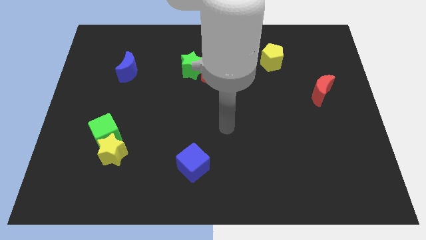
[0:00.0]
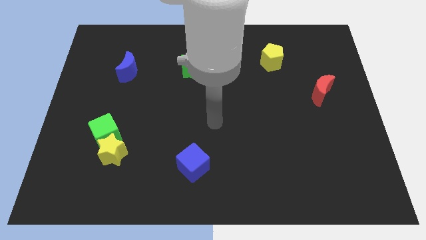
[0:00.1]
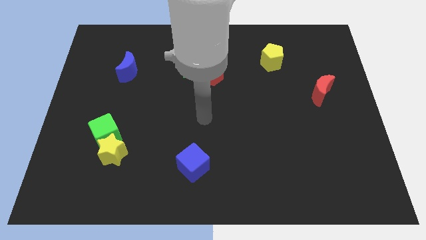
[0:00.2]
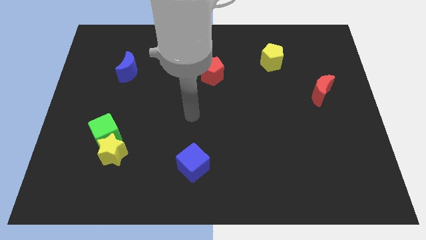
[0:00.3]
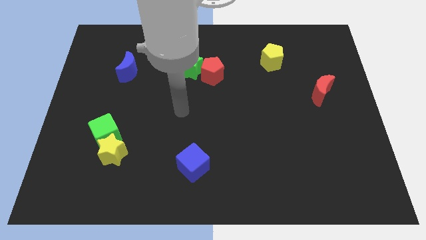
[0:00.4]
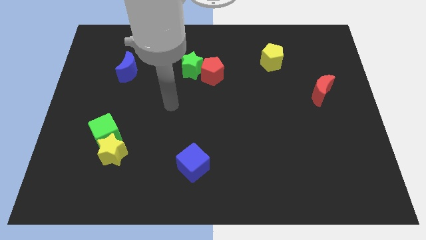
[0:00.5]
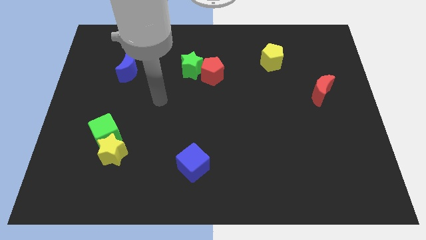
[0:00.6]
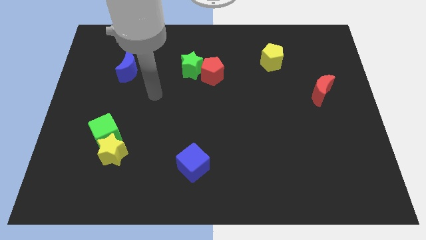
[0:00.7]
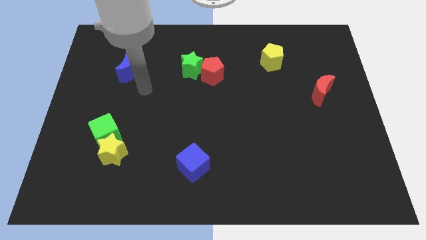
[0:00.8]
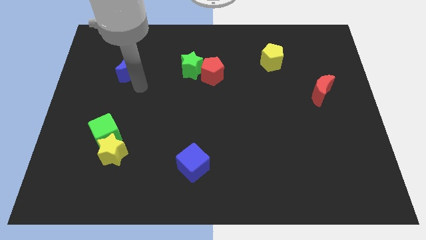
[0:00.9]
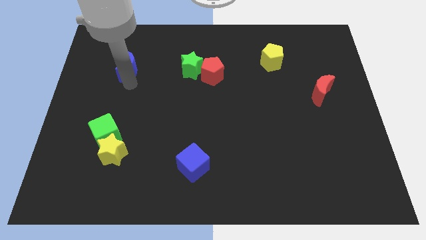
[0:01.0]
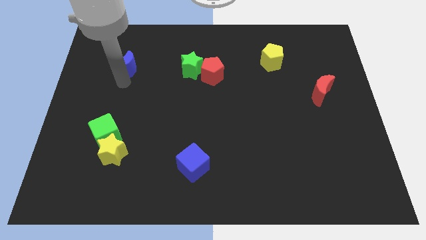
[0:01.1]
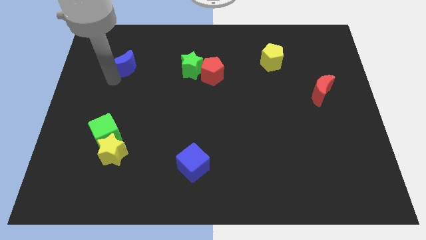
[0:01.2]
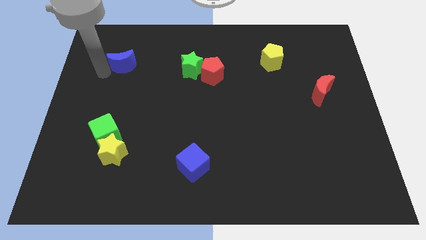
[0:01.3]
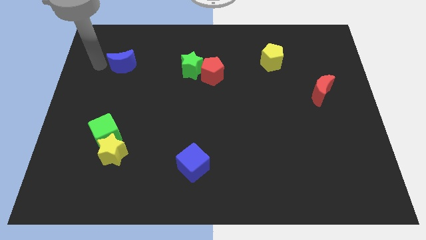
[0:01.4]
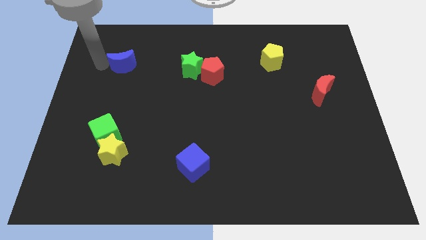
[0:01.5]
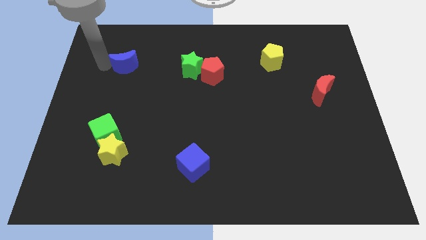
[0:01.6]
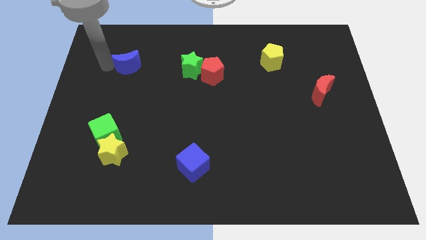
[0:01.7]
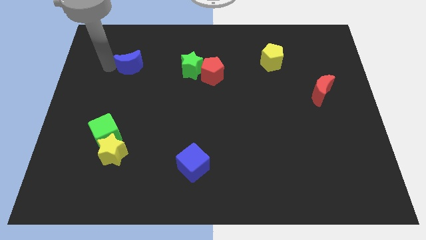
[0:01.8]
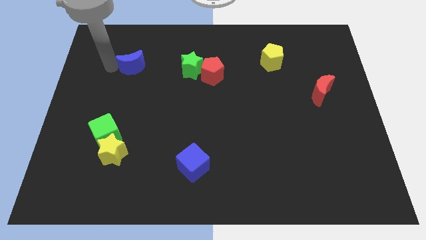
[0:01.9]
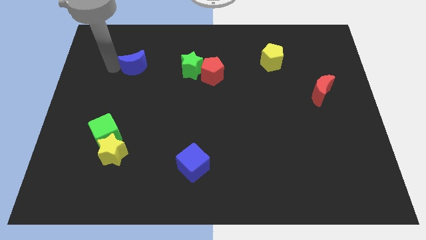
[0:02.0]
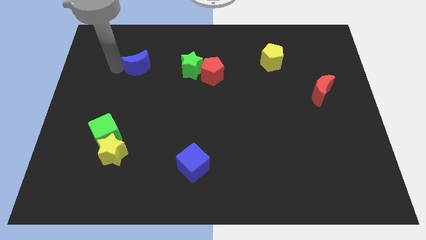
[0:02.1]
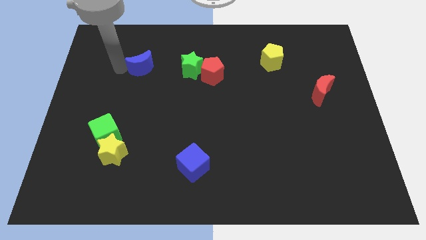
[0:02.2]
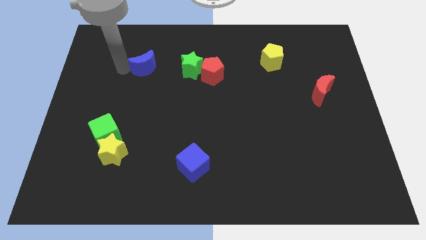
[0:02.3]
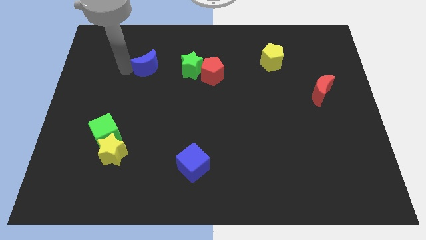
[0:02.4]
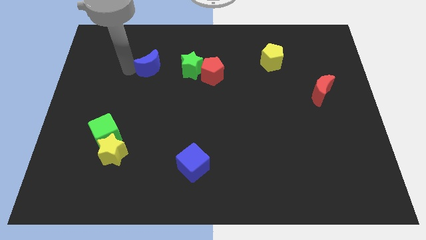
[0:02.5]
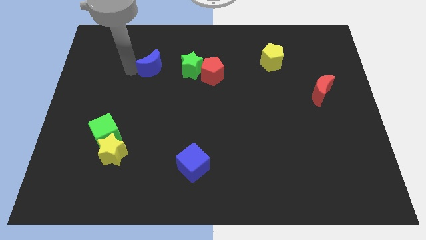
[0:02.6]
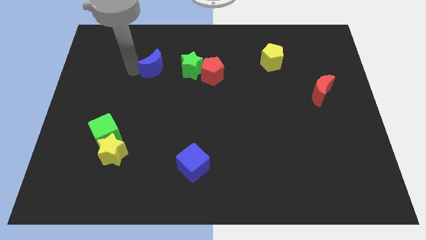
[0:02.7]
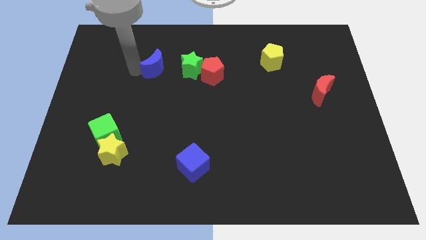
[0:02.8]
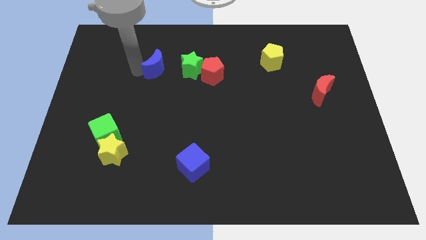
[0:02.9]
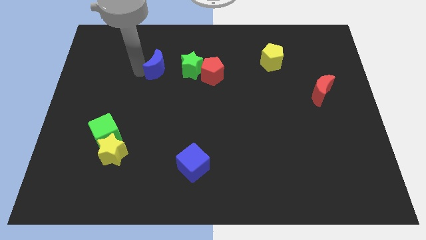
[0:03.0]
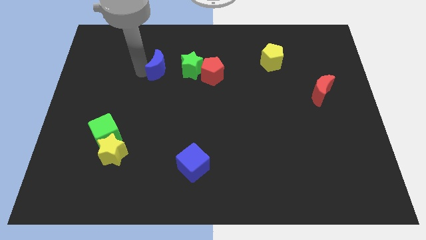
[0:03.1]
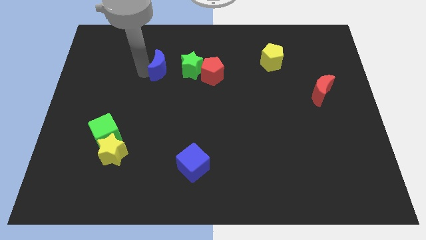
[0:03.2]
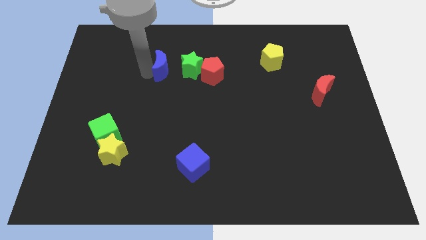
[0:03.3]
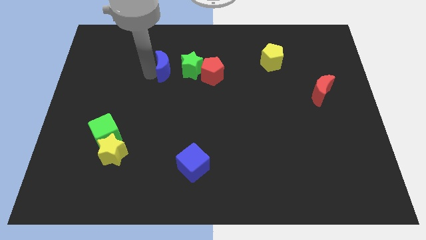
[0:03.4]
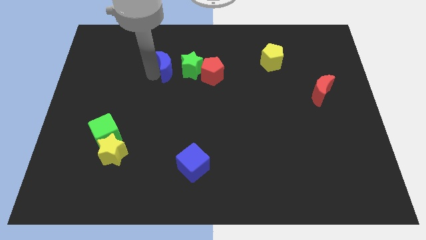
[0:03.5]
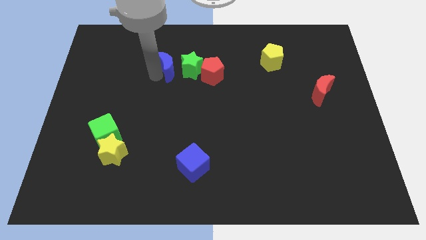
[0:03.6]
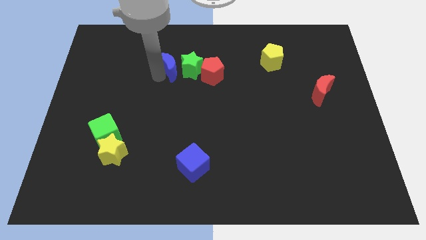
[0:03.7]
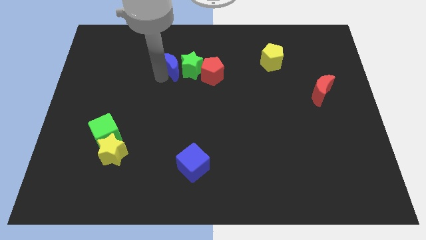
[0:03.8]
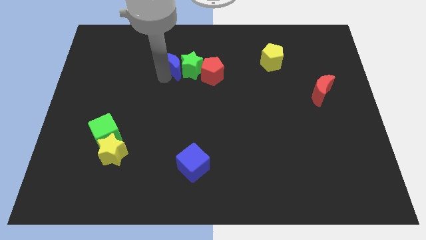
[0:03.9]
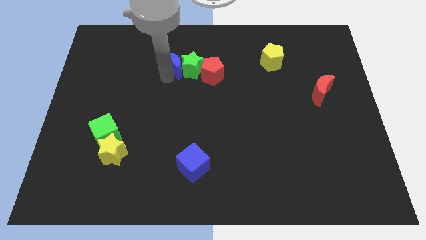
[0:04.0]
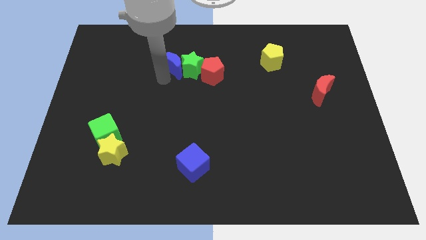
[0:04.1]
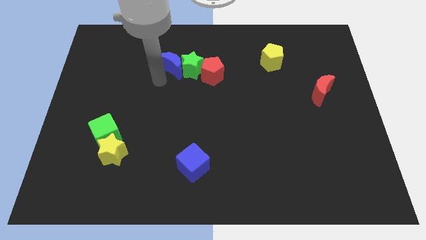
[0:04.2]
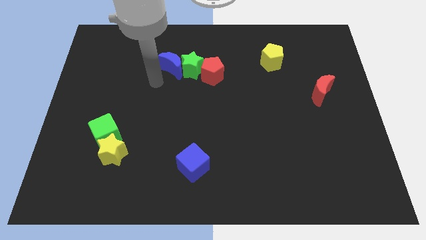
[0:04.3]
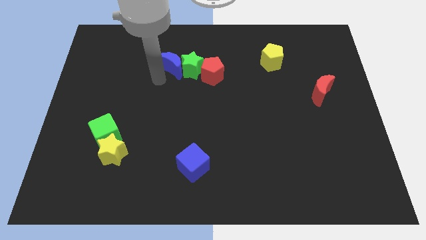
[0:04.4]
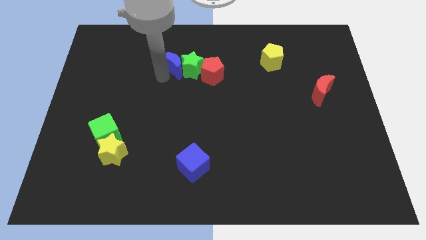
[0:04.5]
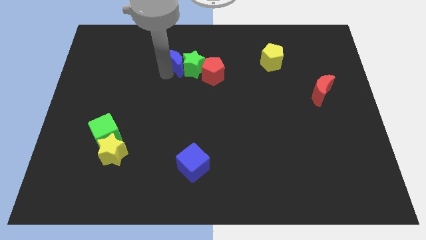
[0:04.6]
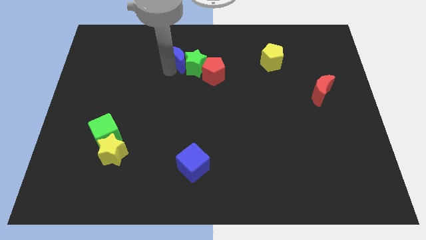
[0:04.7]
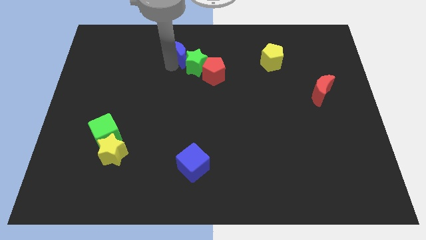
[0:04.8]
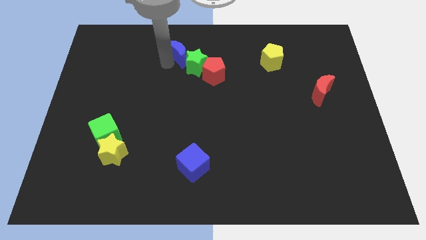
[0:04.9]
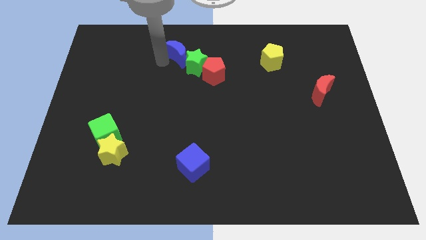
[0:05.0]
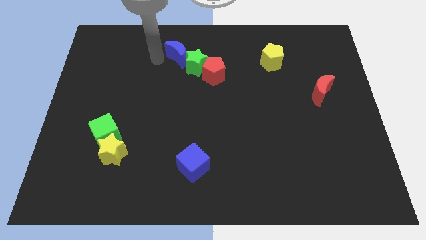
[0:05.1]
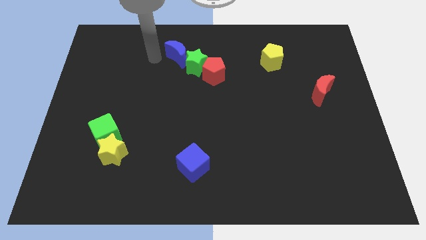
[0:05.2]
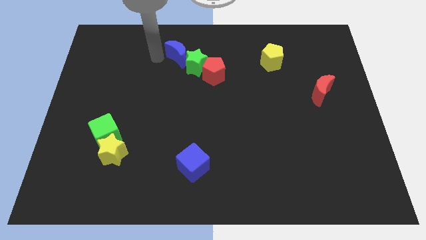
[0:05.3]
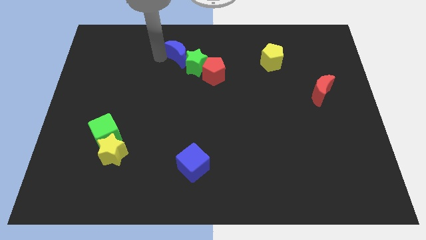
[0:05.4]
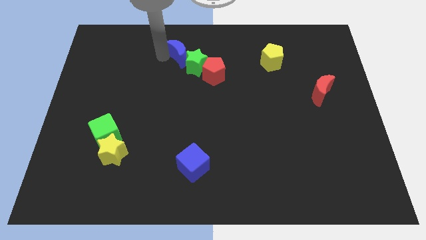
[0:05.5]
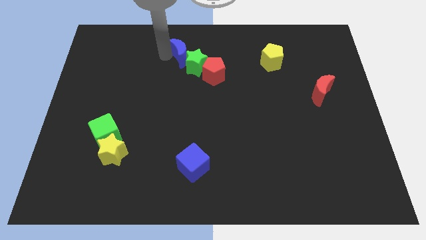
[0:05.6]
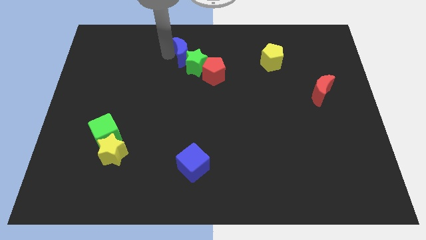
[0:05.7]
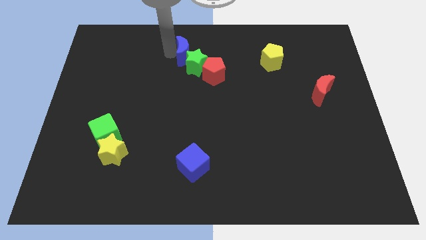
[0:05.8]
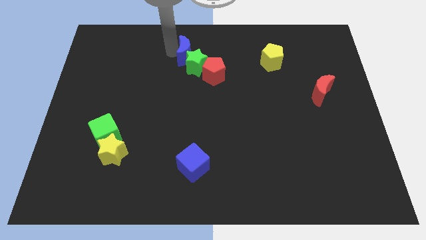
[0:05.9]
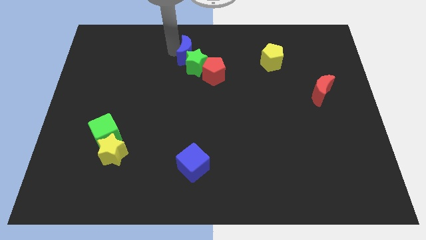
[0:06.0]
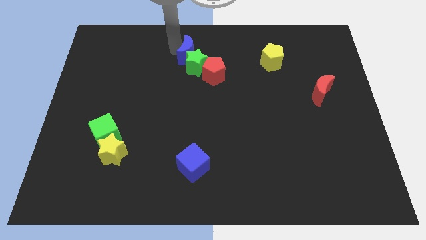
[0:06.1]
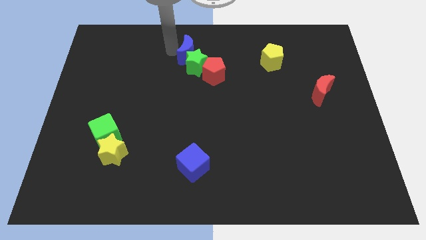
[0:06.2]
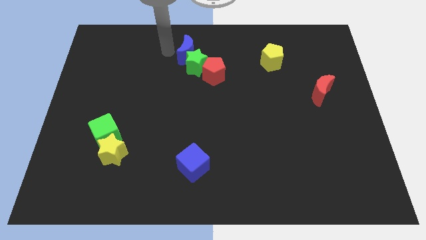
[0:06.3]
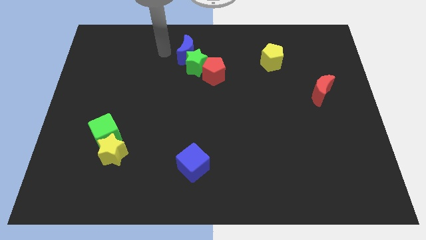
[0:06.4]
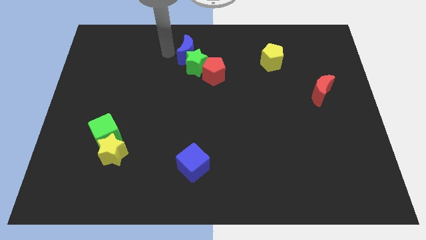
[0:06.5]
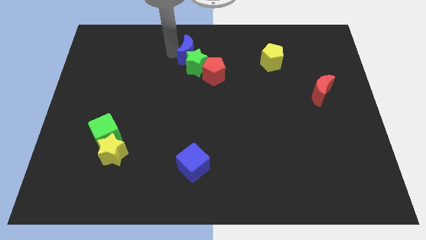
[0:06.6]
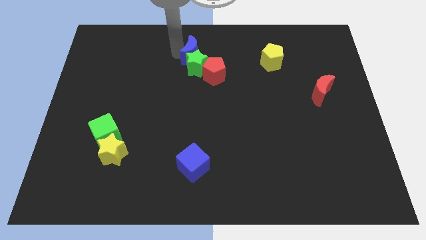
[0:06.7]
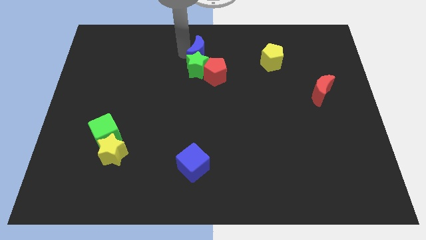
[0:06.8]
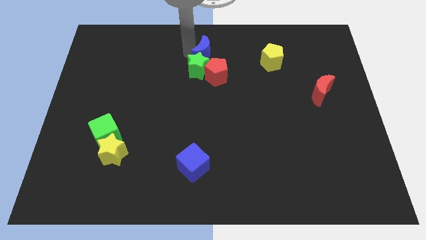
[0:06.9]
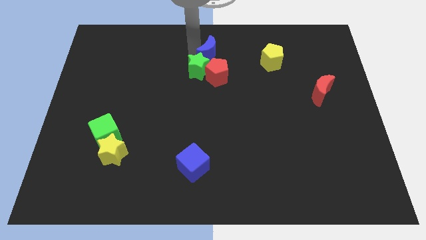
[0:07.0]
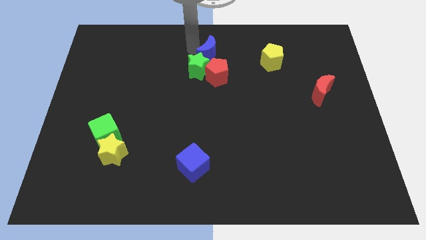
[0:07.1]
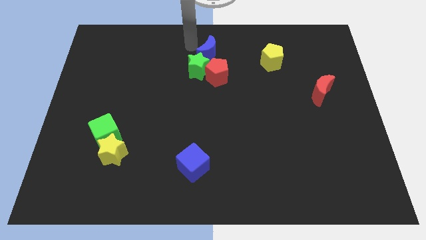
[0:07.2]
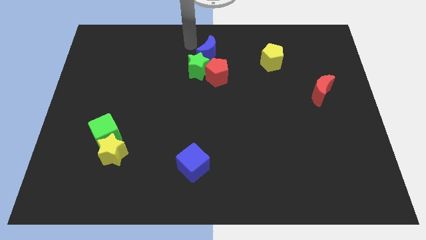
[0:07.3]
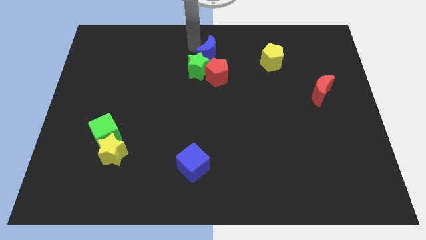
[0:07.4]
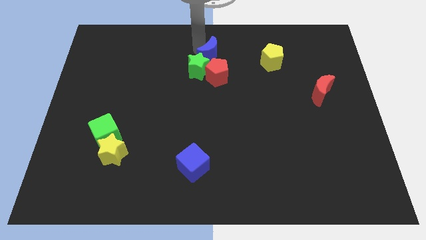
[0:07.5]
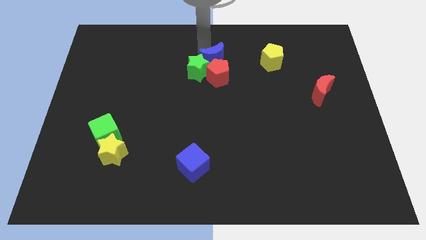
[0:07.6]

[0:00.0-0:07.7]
slide the blue moon to the right
